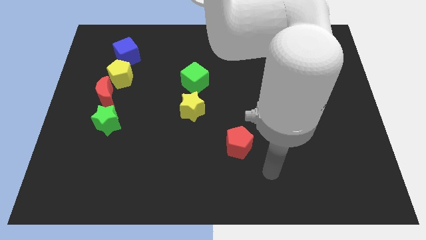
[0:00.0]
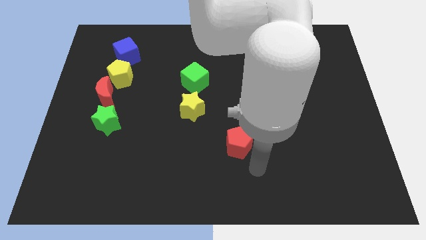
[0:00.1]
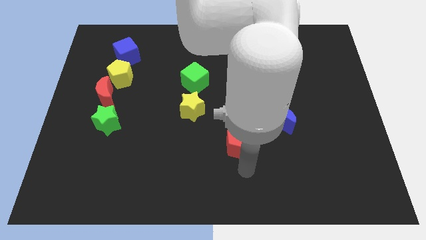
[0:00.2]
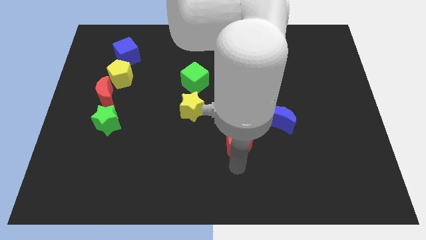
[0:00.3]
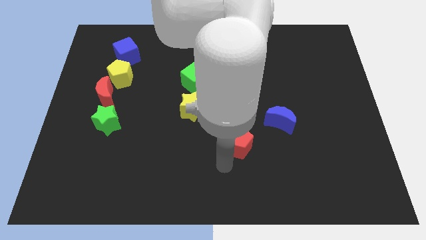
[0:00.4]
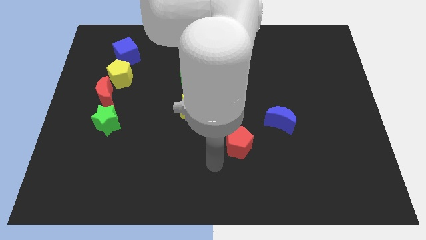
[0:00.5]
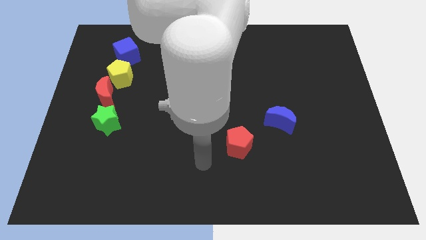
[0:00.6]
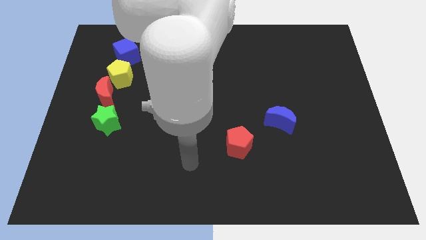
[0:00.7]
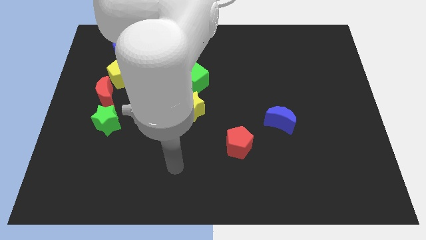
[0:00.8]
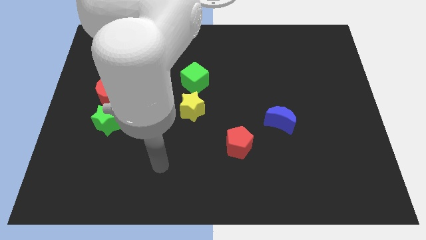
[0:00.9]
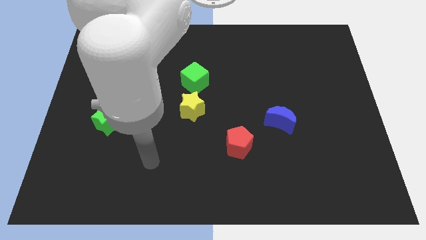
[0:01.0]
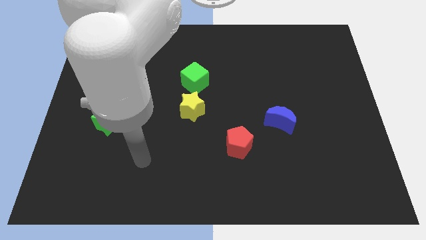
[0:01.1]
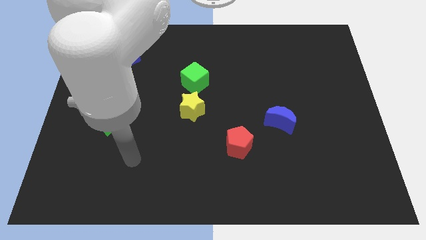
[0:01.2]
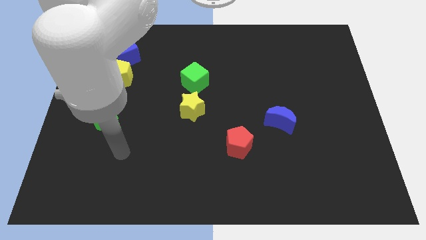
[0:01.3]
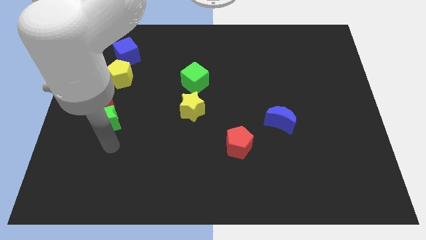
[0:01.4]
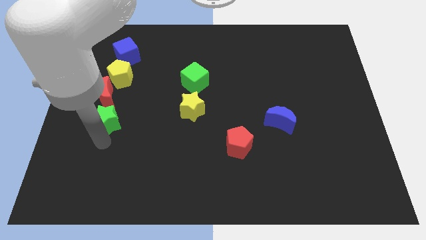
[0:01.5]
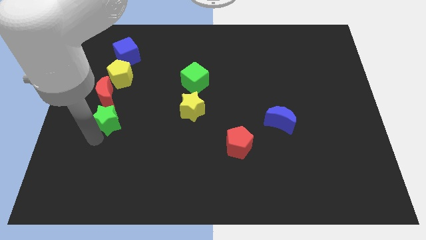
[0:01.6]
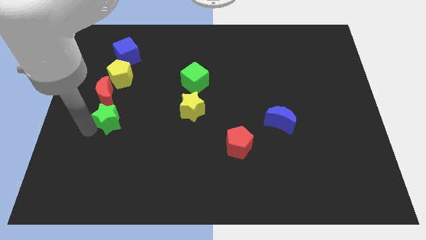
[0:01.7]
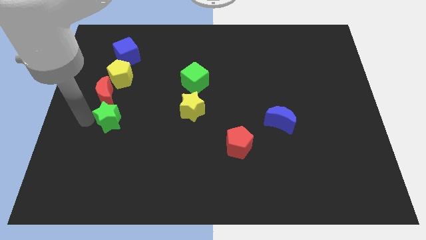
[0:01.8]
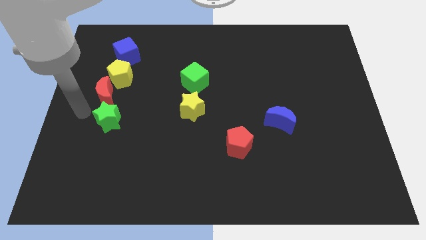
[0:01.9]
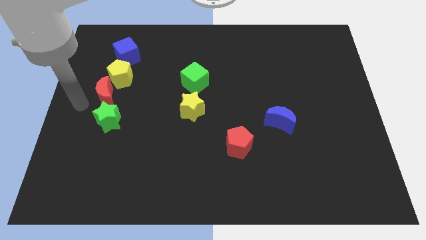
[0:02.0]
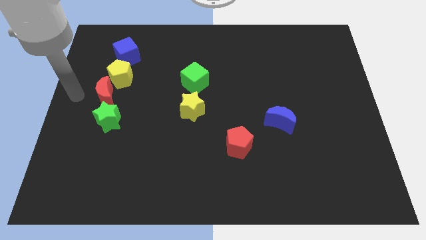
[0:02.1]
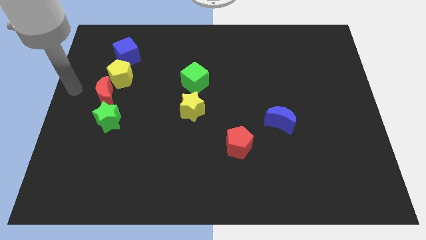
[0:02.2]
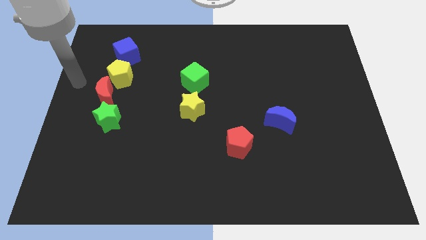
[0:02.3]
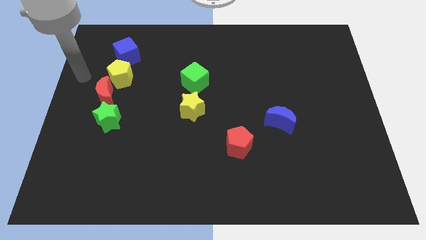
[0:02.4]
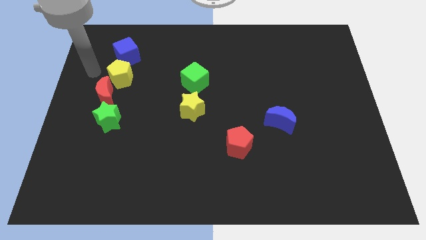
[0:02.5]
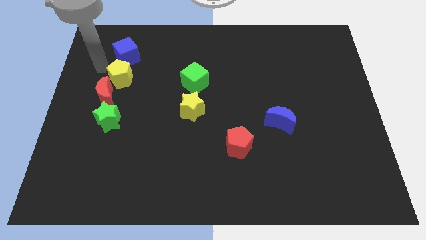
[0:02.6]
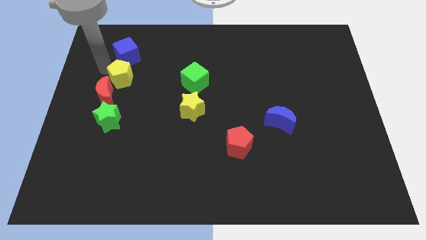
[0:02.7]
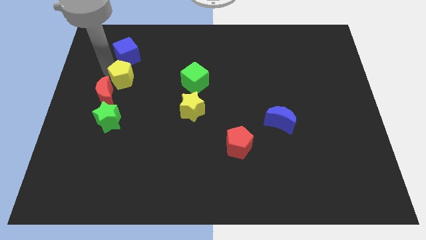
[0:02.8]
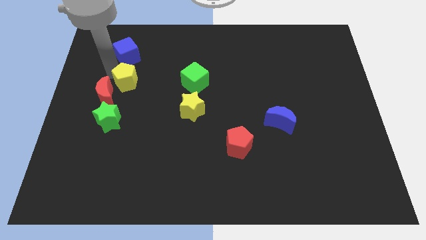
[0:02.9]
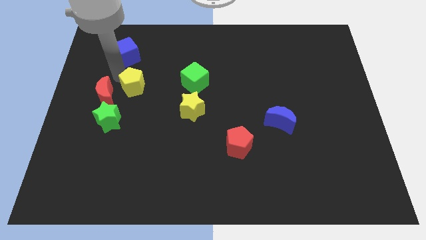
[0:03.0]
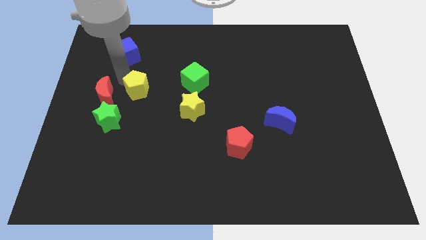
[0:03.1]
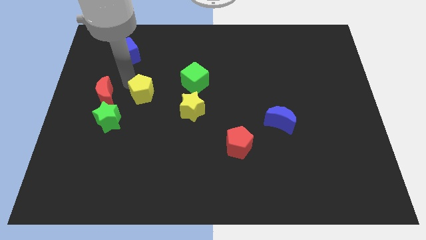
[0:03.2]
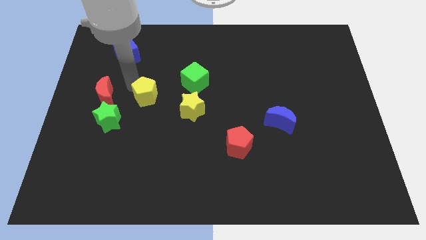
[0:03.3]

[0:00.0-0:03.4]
move the yellow pentagon away from the red moon and blue cube

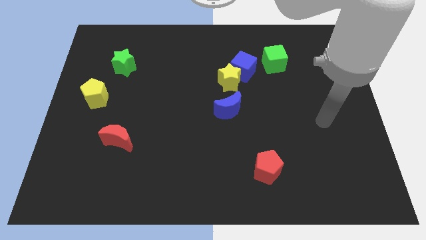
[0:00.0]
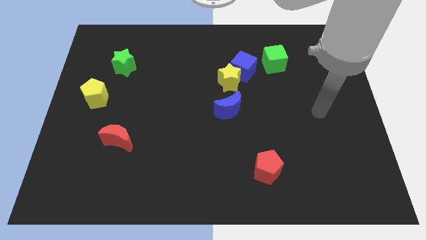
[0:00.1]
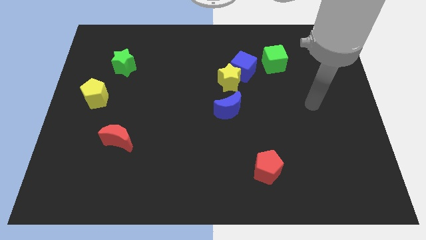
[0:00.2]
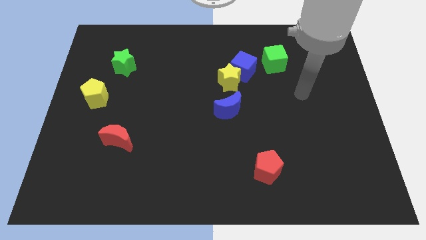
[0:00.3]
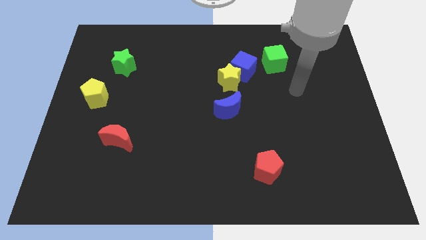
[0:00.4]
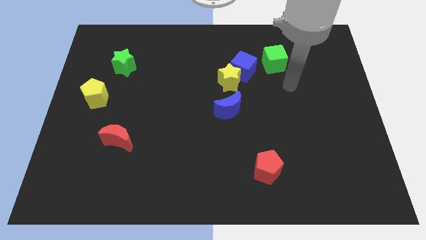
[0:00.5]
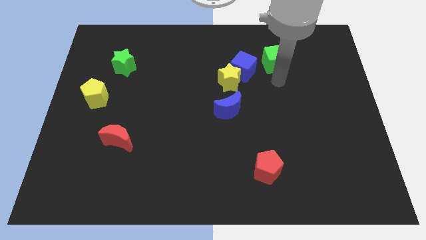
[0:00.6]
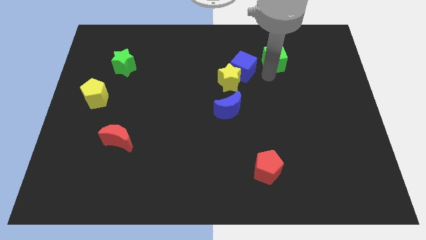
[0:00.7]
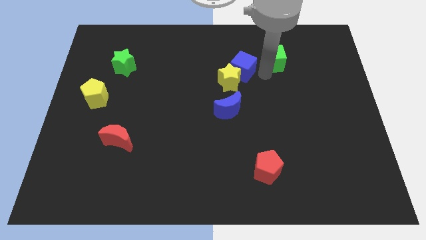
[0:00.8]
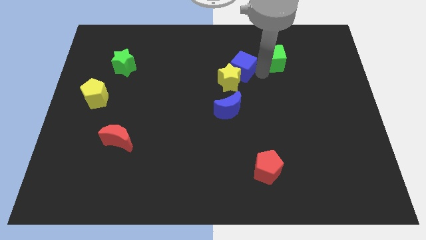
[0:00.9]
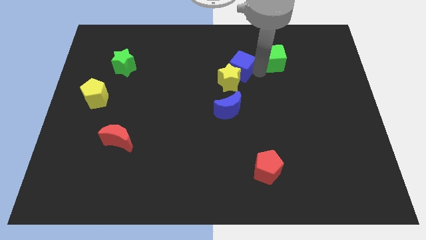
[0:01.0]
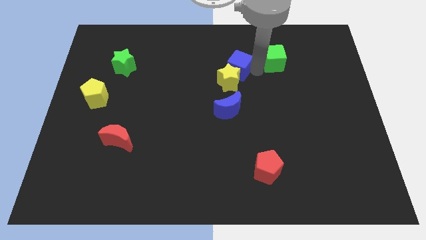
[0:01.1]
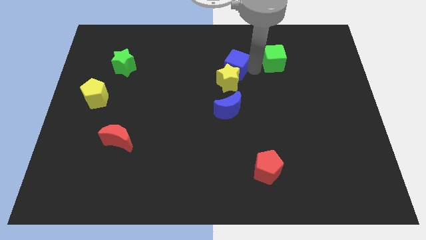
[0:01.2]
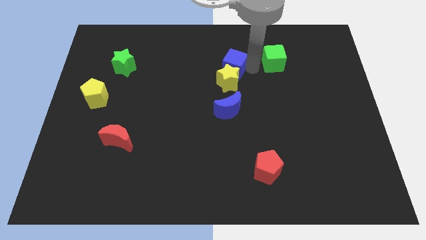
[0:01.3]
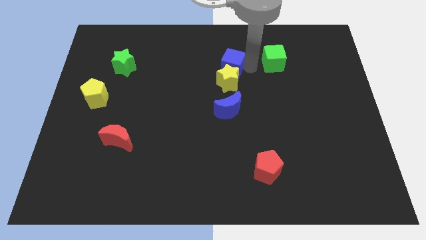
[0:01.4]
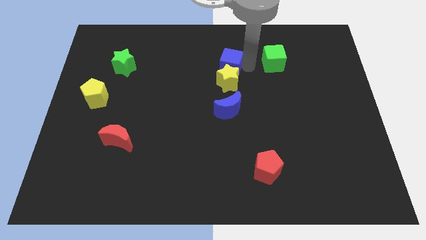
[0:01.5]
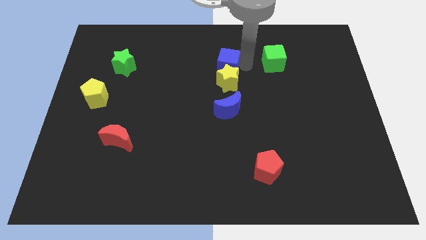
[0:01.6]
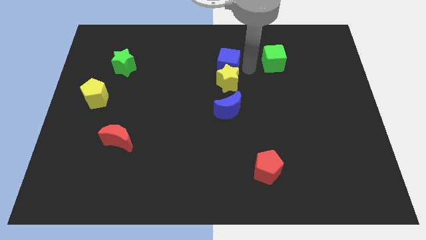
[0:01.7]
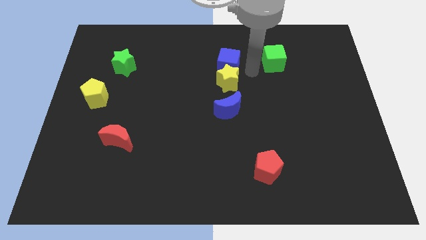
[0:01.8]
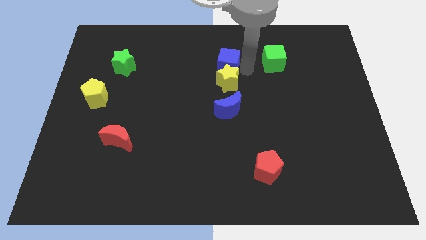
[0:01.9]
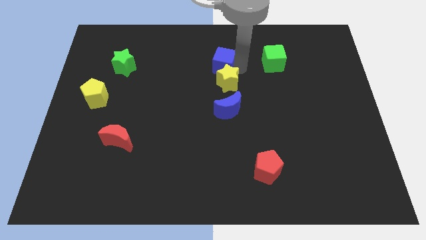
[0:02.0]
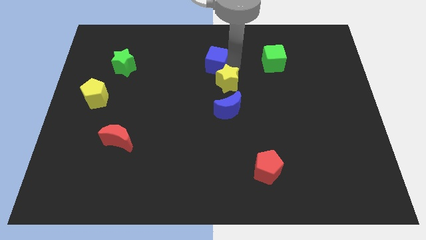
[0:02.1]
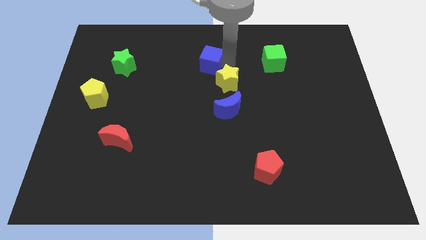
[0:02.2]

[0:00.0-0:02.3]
pull the blue cube apart from the yellow star and green cube

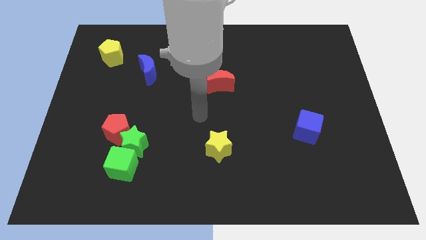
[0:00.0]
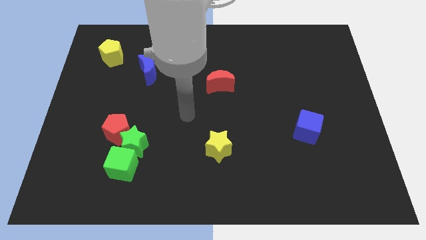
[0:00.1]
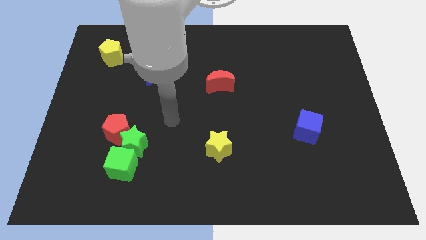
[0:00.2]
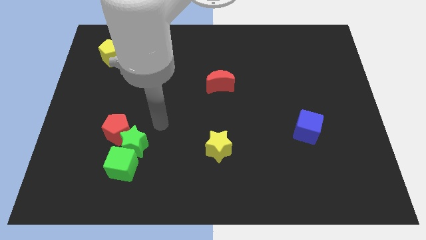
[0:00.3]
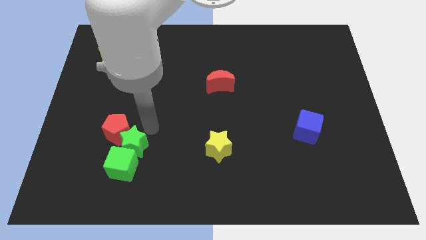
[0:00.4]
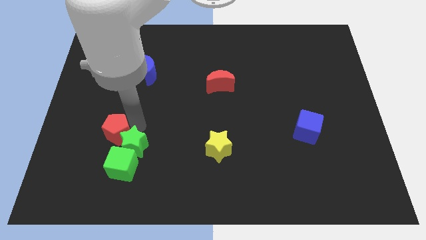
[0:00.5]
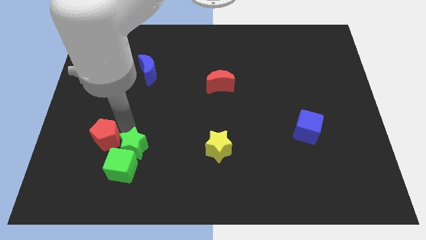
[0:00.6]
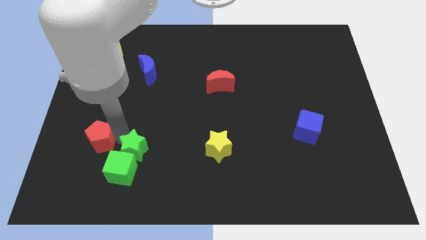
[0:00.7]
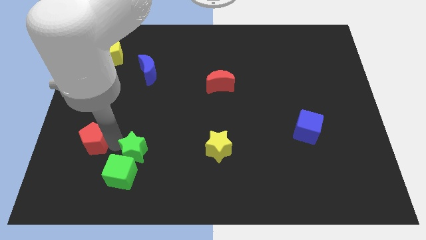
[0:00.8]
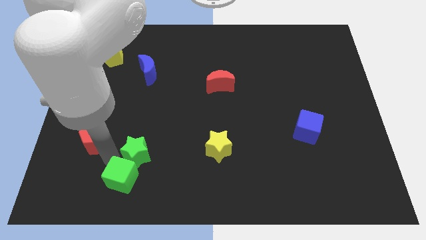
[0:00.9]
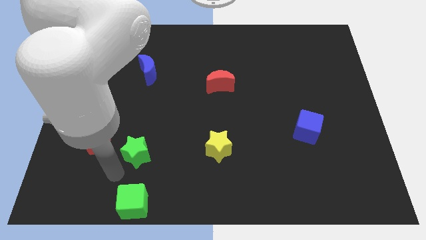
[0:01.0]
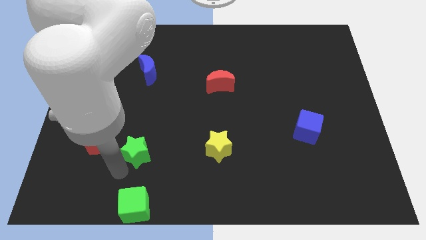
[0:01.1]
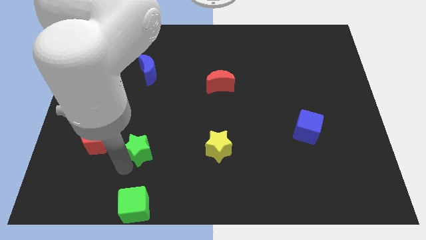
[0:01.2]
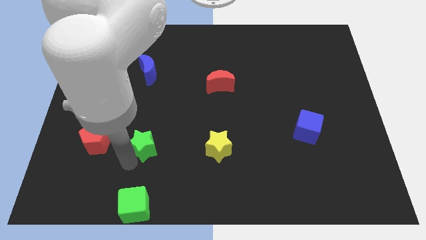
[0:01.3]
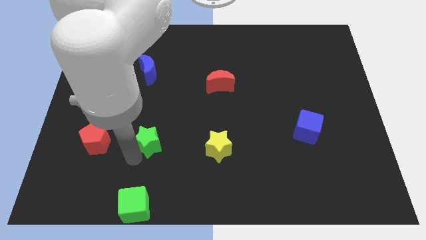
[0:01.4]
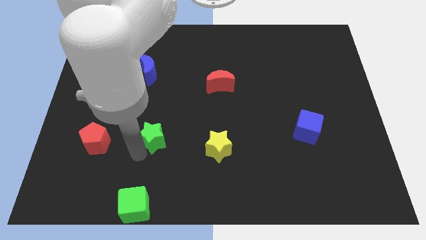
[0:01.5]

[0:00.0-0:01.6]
separate the green star from the red pentagon and green cube

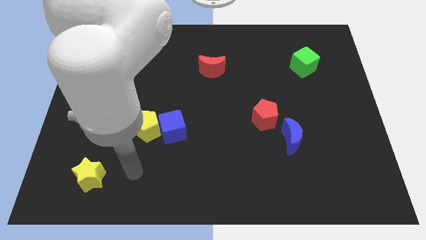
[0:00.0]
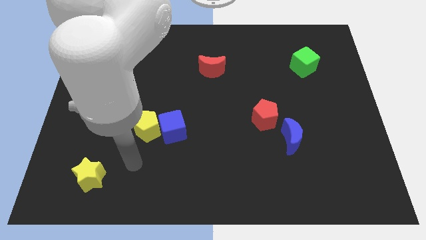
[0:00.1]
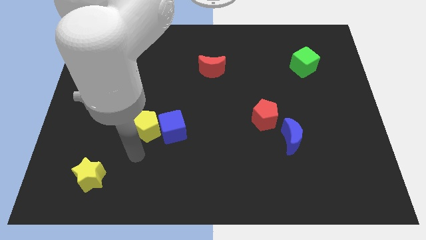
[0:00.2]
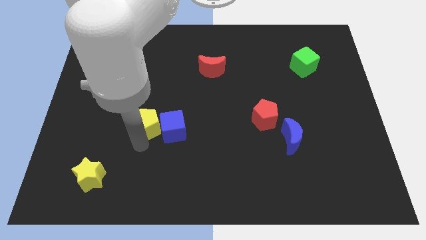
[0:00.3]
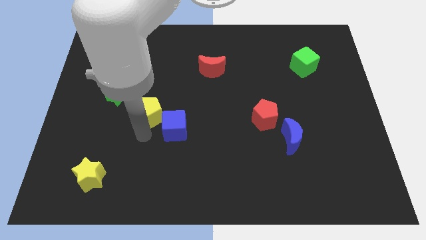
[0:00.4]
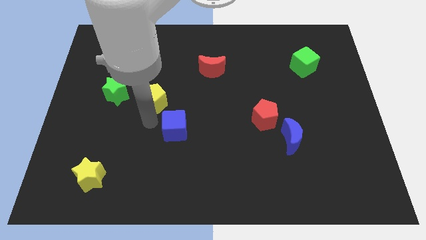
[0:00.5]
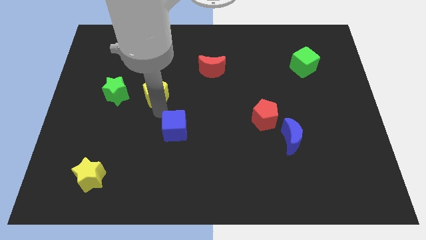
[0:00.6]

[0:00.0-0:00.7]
pull the blue cube apart from the yellow pentagon

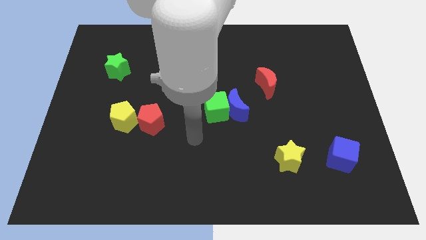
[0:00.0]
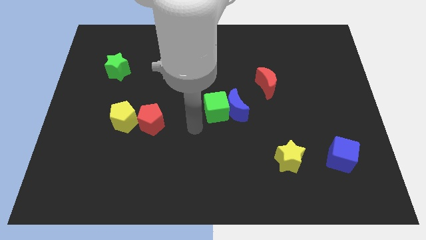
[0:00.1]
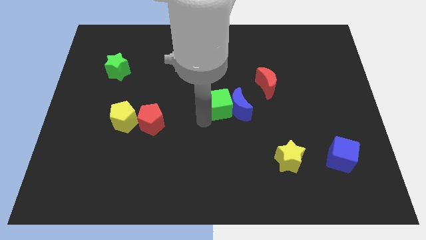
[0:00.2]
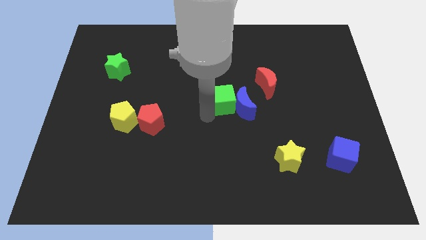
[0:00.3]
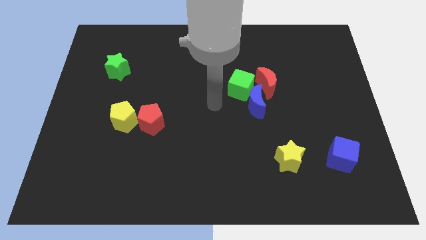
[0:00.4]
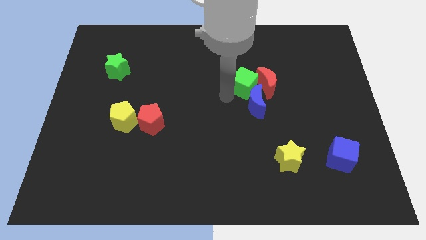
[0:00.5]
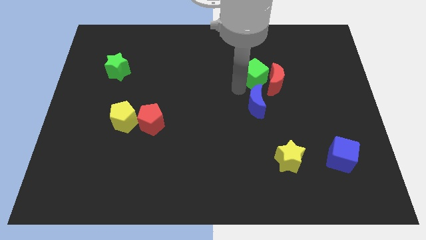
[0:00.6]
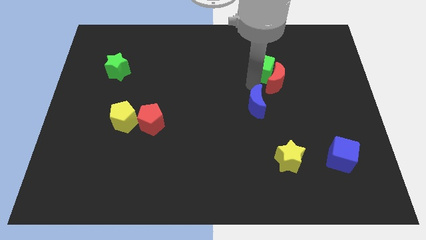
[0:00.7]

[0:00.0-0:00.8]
move the blue moon away from the green cube

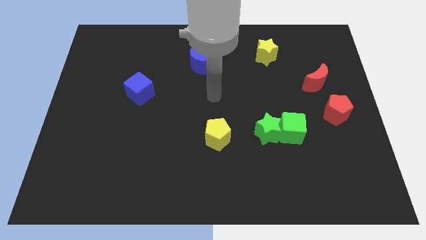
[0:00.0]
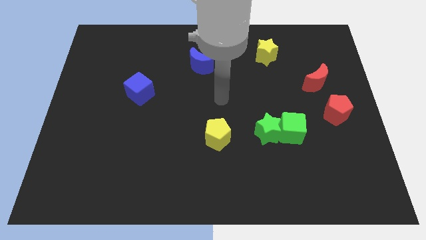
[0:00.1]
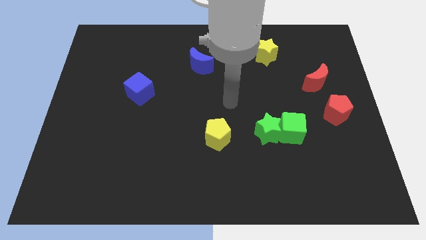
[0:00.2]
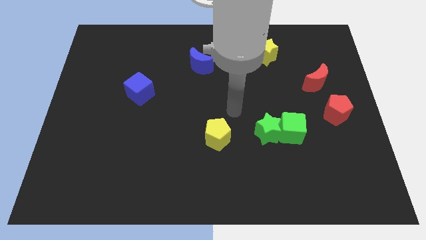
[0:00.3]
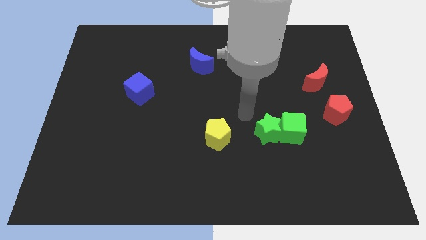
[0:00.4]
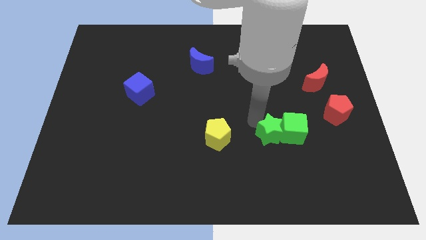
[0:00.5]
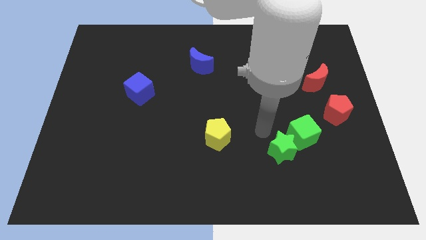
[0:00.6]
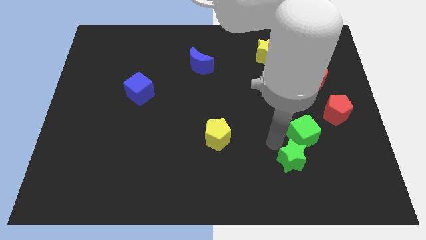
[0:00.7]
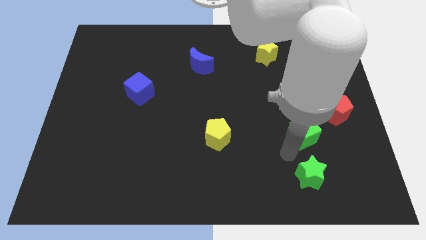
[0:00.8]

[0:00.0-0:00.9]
move the green cube away from the green star
